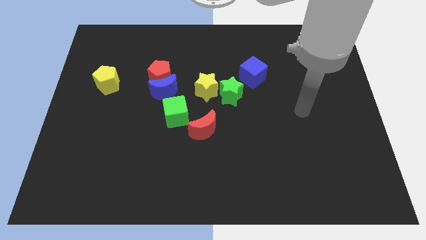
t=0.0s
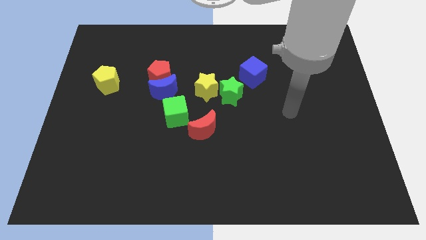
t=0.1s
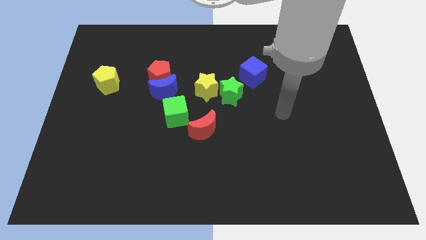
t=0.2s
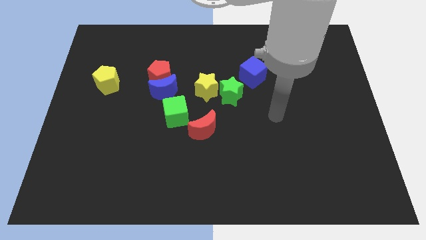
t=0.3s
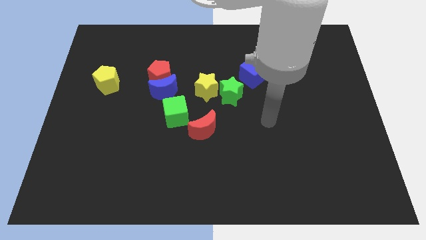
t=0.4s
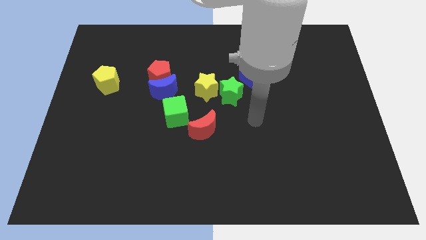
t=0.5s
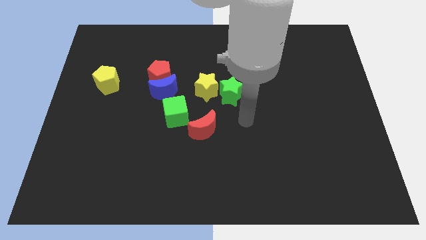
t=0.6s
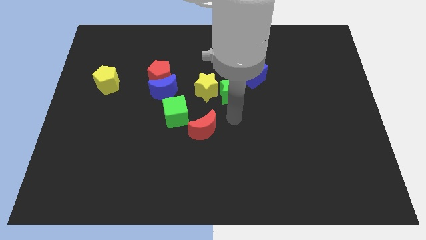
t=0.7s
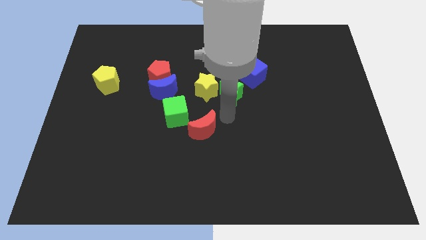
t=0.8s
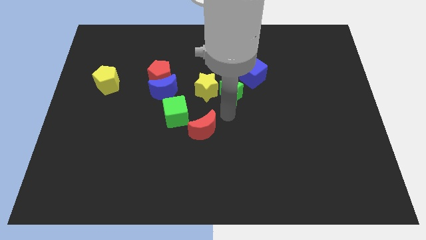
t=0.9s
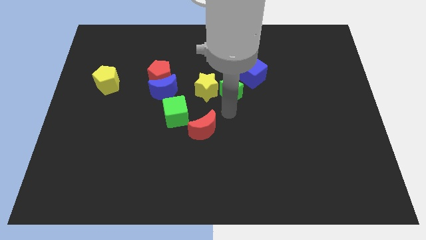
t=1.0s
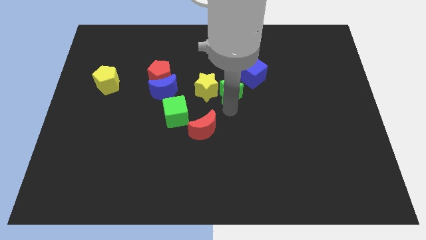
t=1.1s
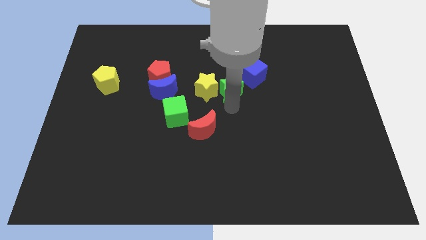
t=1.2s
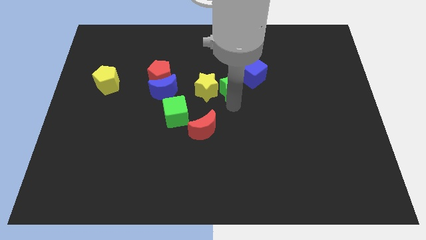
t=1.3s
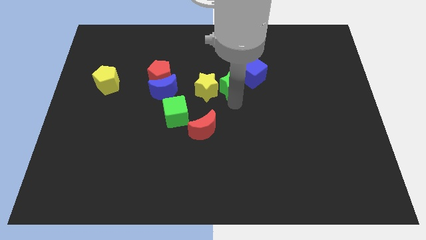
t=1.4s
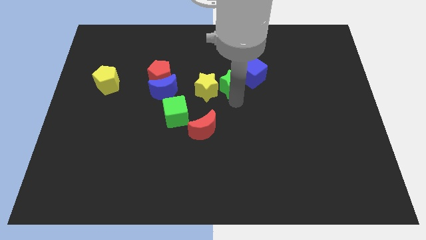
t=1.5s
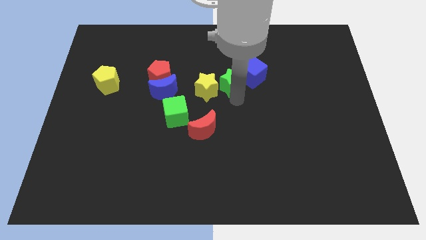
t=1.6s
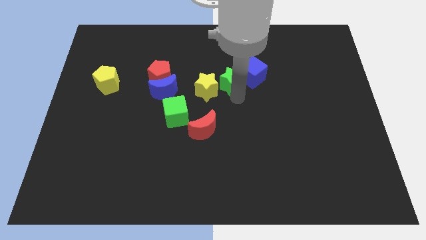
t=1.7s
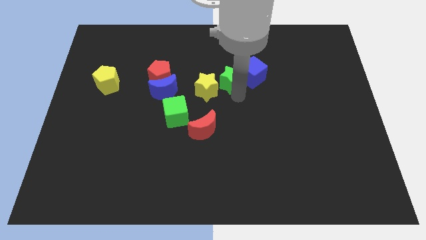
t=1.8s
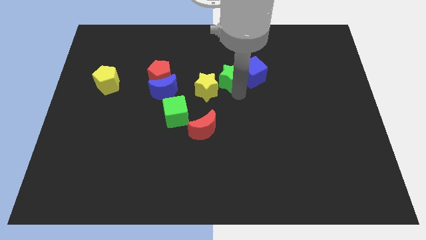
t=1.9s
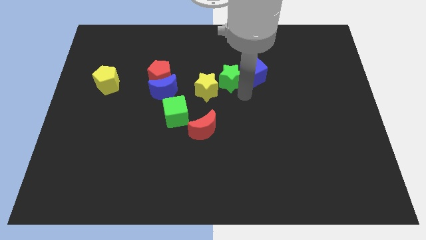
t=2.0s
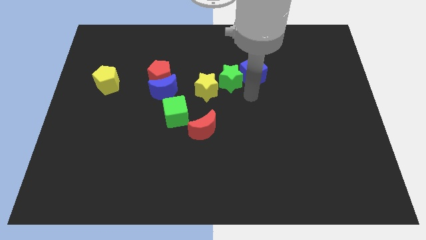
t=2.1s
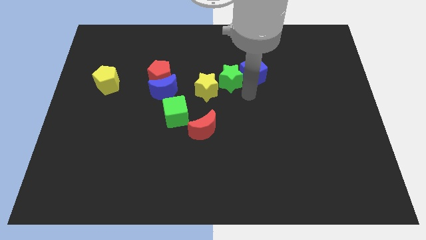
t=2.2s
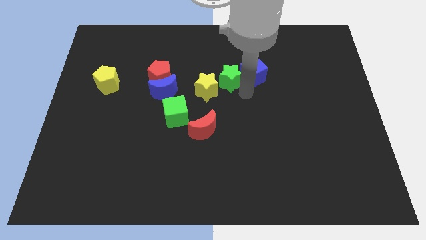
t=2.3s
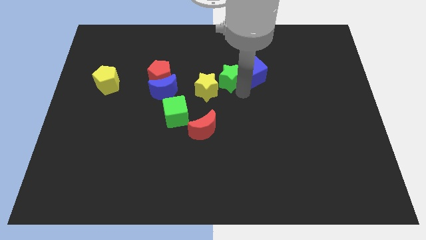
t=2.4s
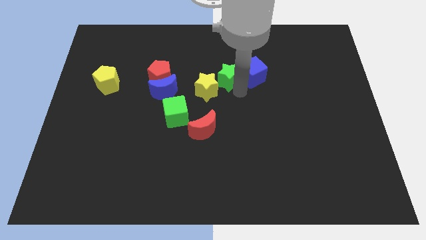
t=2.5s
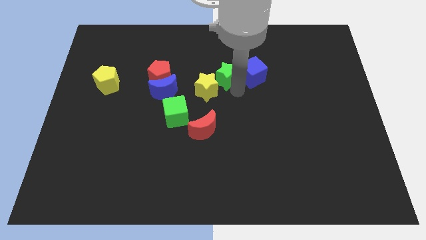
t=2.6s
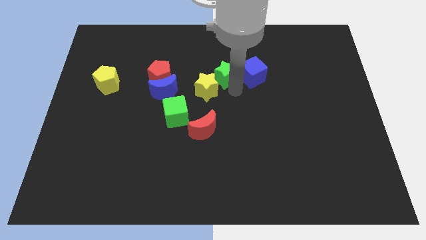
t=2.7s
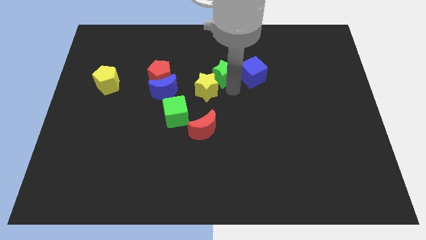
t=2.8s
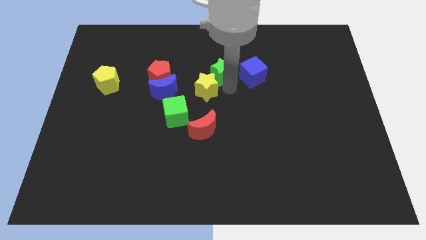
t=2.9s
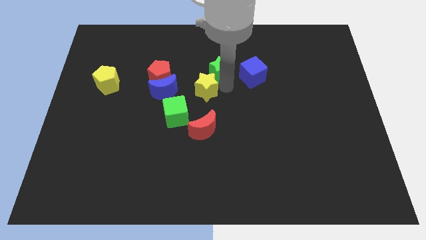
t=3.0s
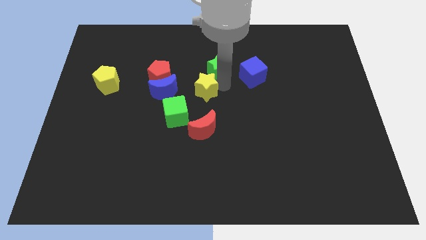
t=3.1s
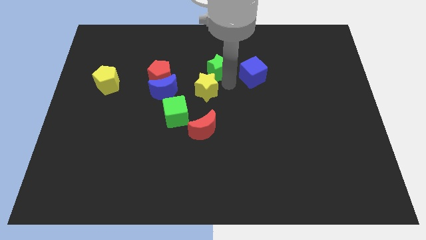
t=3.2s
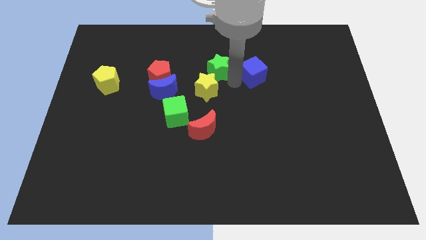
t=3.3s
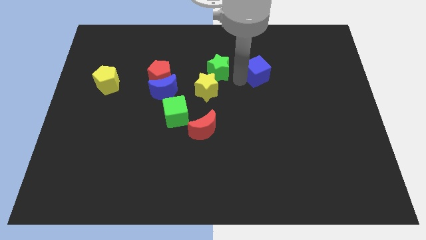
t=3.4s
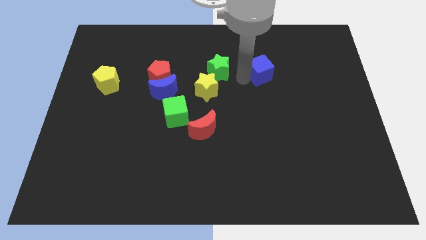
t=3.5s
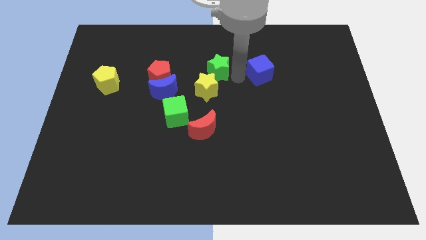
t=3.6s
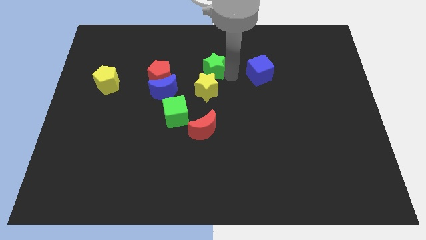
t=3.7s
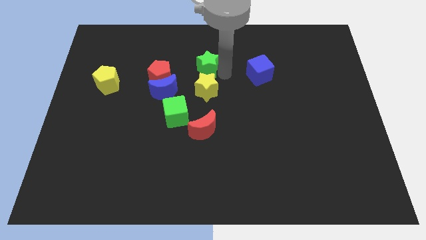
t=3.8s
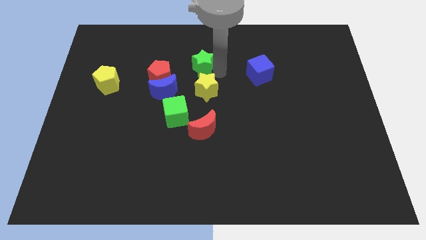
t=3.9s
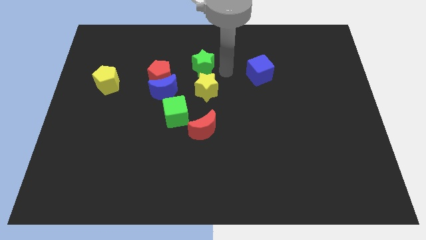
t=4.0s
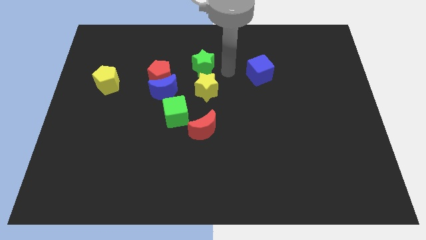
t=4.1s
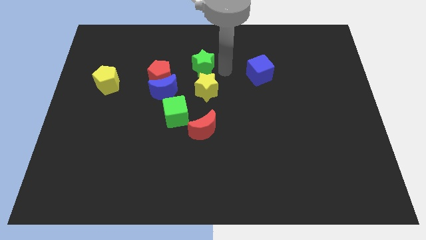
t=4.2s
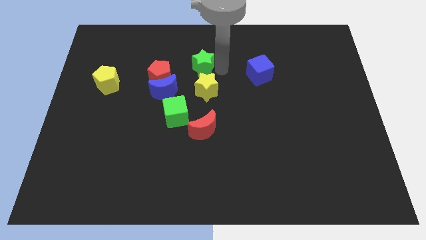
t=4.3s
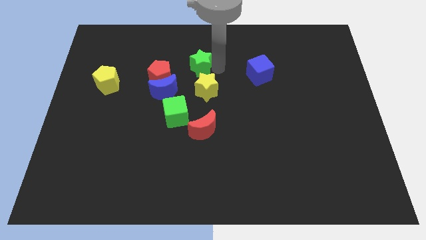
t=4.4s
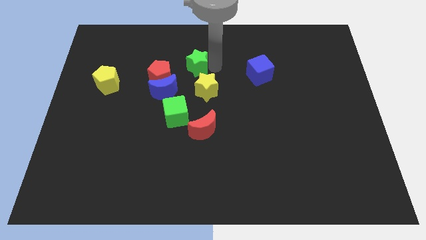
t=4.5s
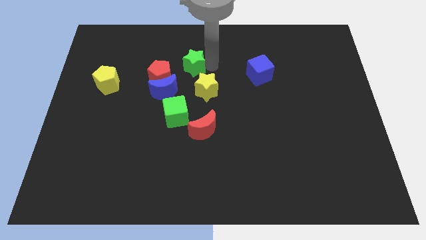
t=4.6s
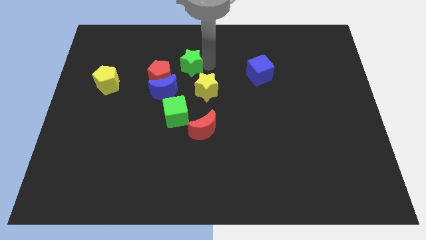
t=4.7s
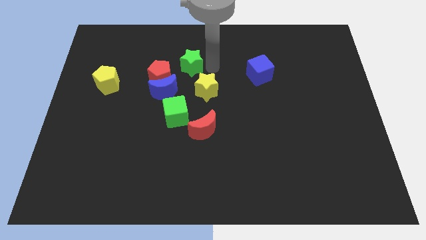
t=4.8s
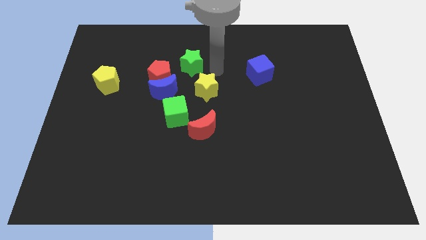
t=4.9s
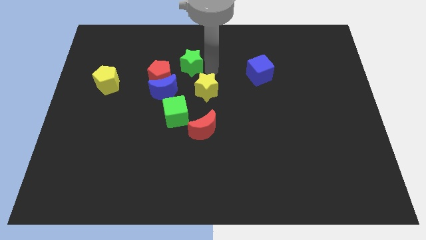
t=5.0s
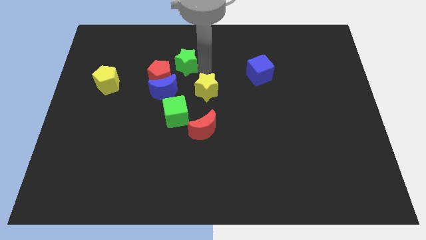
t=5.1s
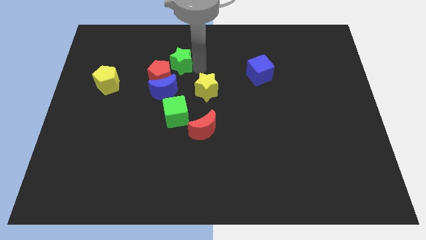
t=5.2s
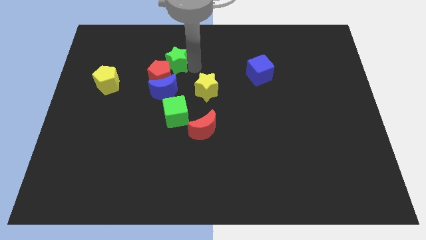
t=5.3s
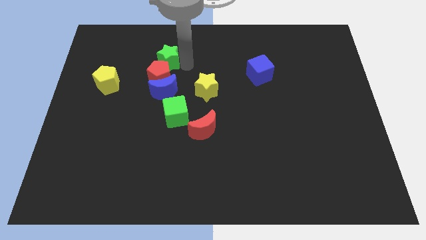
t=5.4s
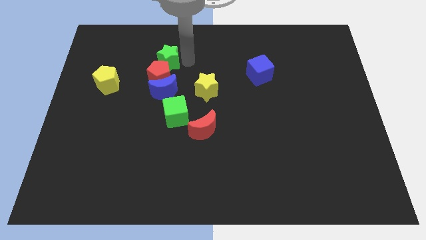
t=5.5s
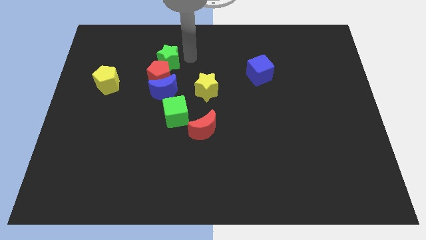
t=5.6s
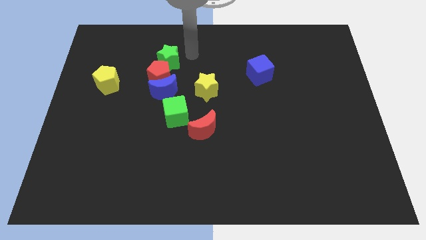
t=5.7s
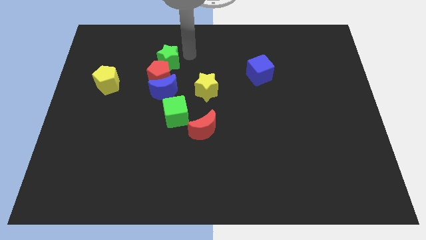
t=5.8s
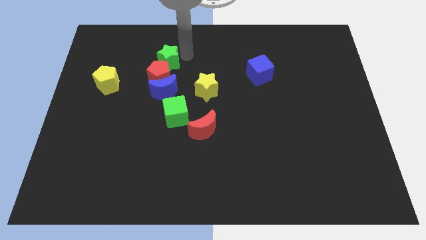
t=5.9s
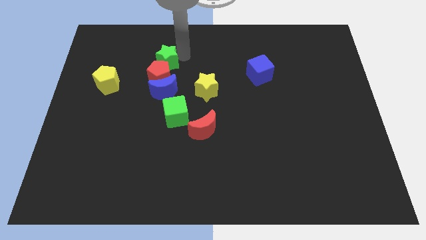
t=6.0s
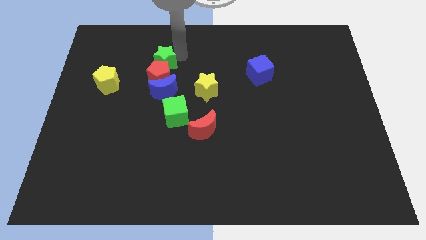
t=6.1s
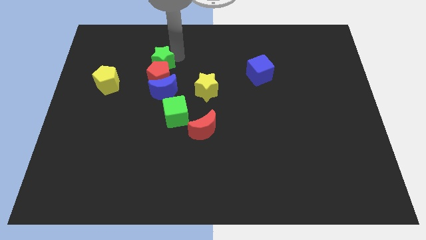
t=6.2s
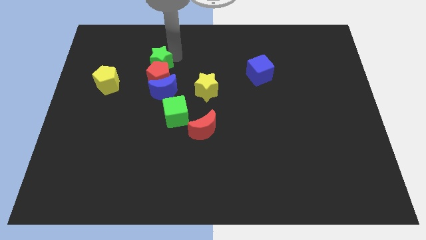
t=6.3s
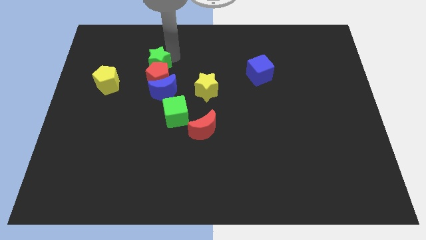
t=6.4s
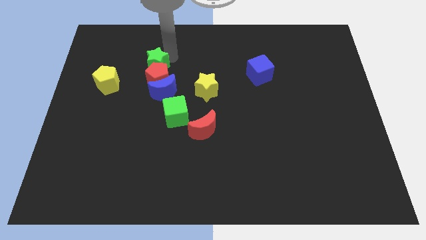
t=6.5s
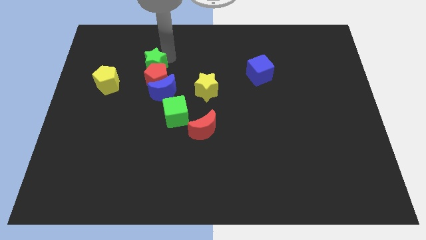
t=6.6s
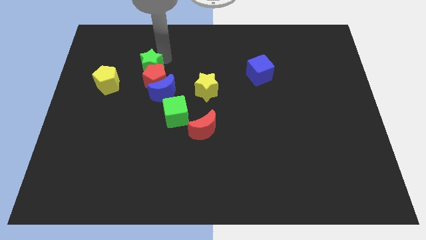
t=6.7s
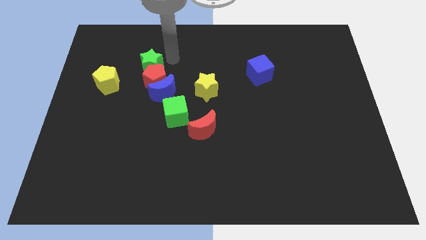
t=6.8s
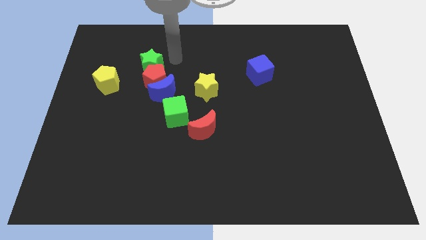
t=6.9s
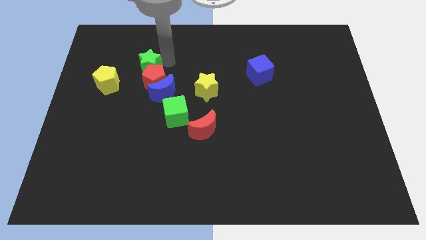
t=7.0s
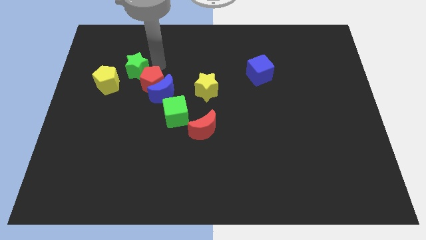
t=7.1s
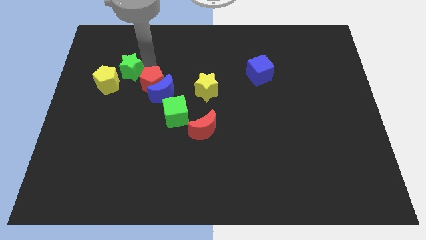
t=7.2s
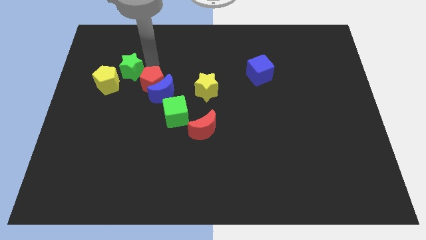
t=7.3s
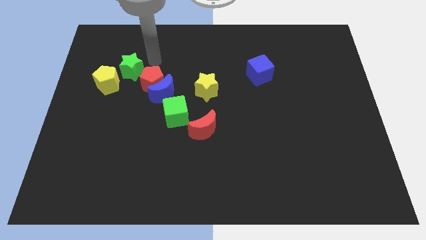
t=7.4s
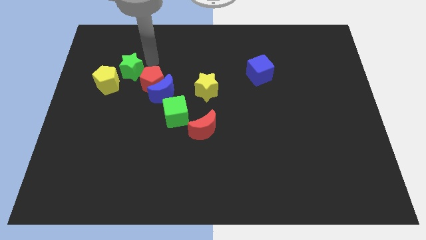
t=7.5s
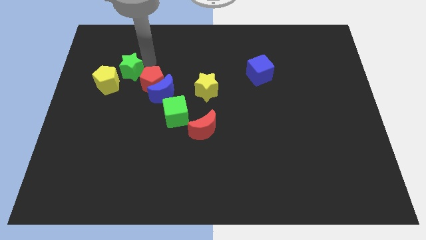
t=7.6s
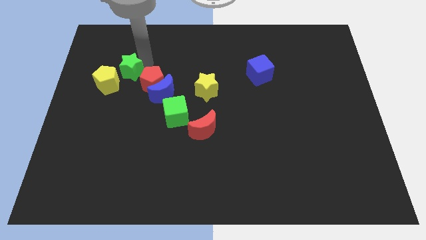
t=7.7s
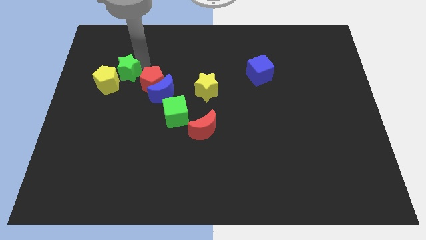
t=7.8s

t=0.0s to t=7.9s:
put the green star next to the yellow pentagon
